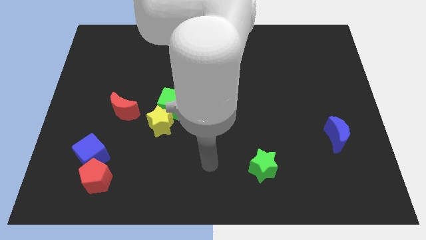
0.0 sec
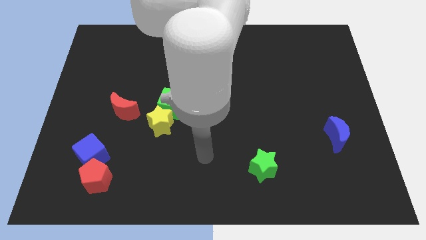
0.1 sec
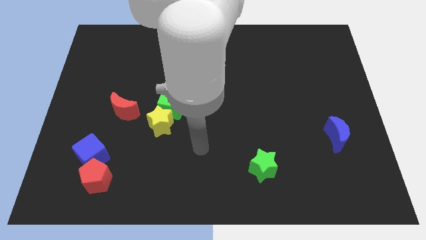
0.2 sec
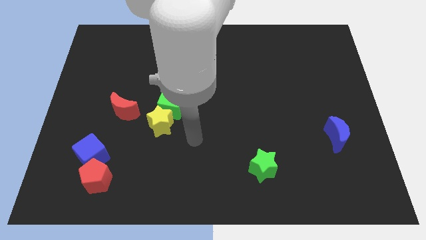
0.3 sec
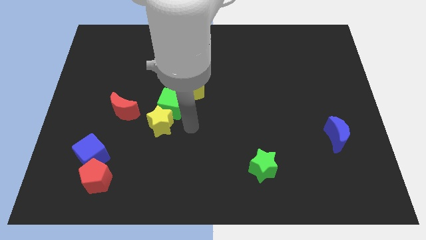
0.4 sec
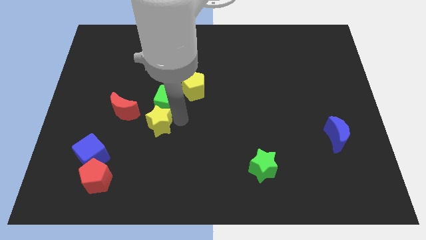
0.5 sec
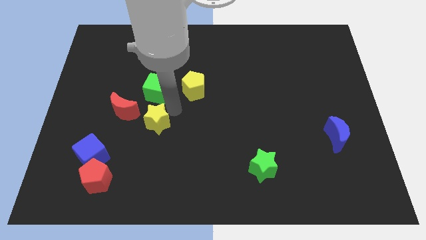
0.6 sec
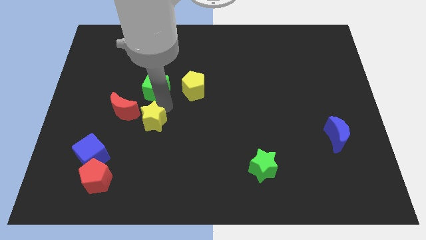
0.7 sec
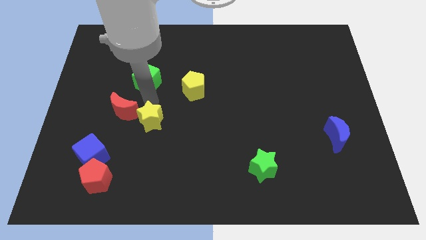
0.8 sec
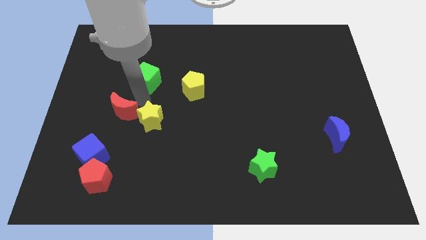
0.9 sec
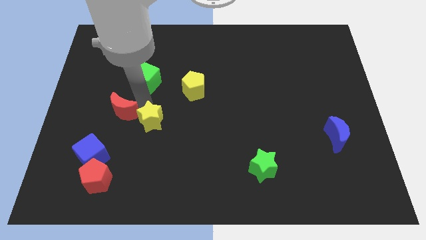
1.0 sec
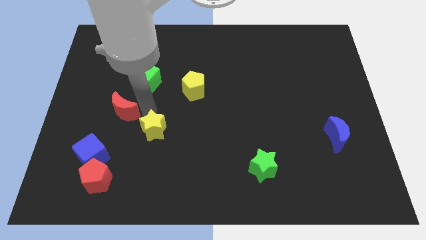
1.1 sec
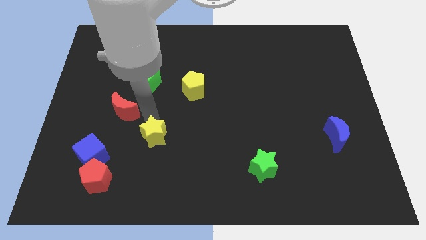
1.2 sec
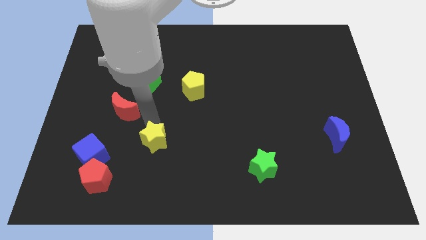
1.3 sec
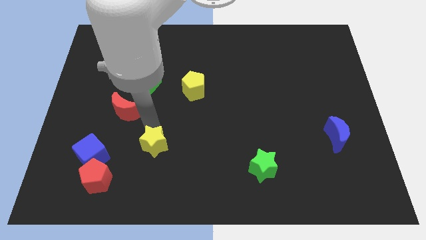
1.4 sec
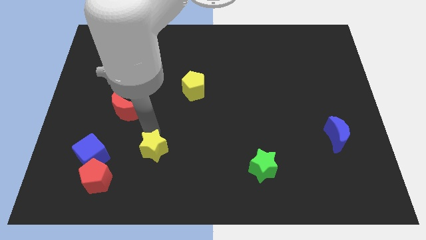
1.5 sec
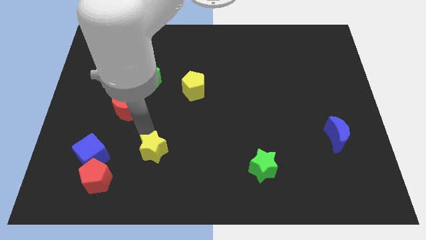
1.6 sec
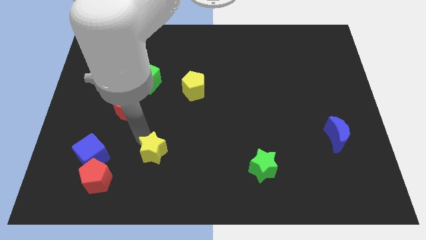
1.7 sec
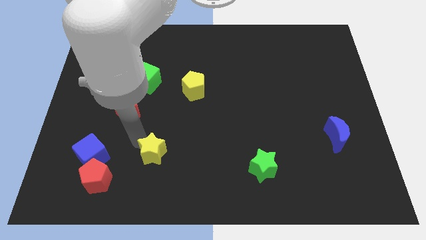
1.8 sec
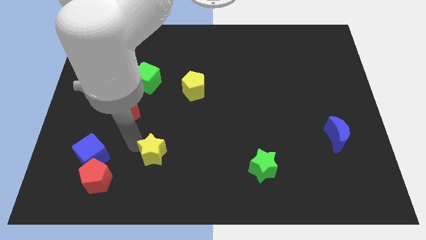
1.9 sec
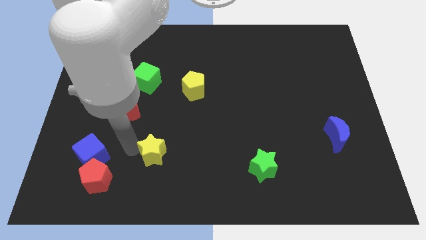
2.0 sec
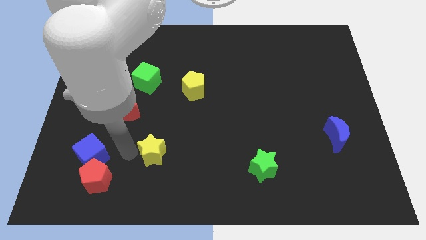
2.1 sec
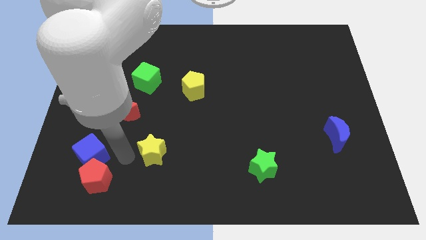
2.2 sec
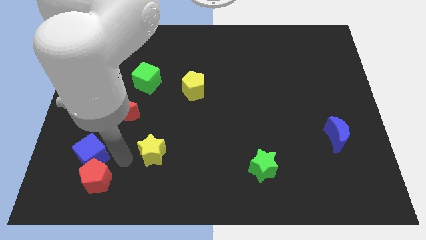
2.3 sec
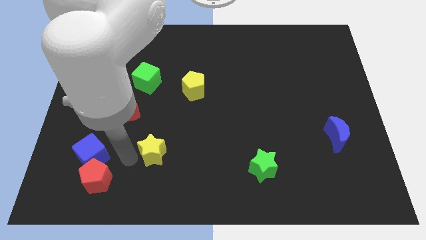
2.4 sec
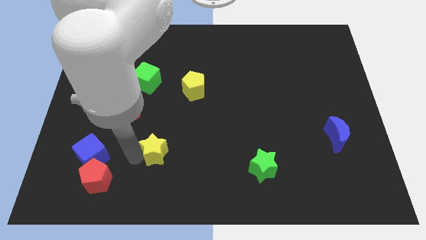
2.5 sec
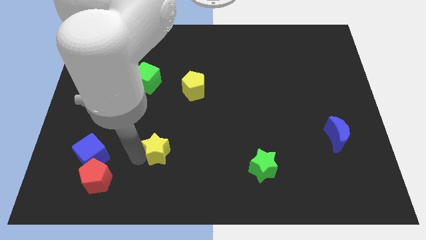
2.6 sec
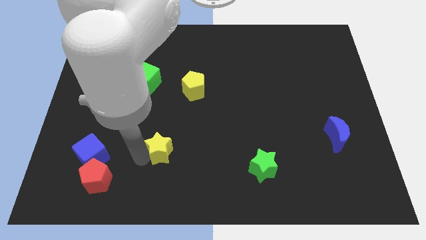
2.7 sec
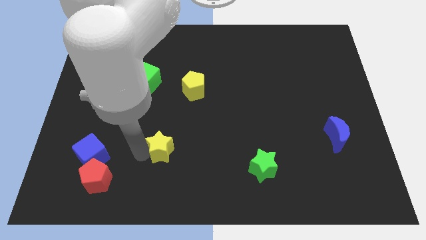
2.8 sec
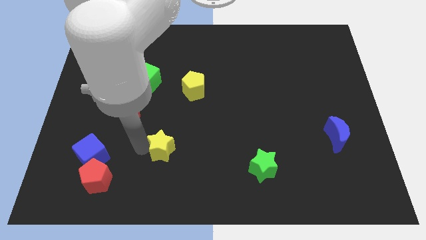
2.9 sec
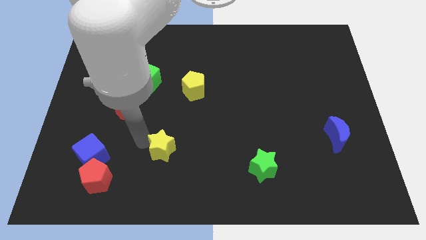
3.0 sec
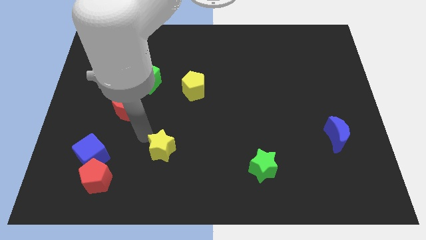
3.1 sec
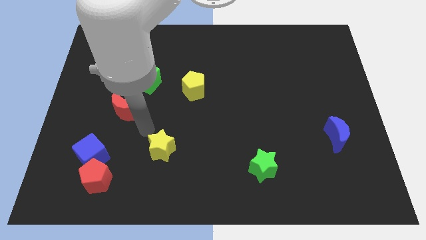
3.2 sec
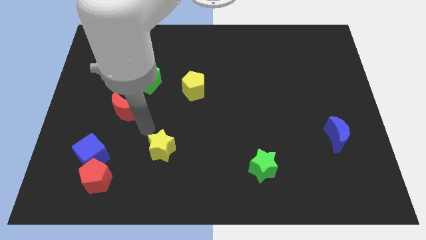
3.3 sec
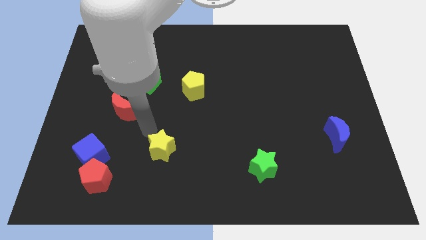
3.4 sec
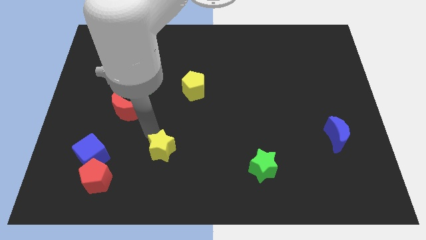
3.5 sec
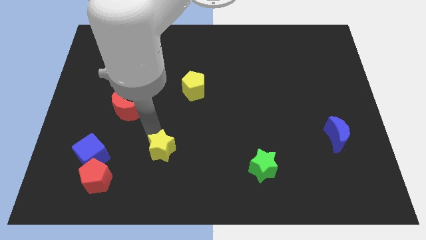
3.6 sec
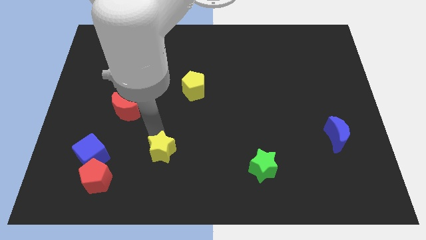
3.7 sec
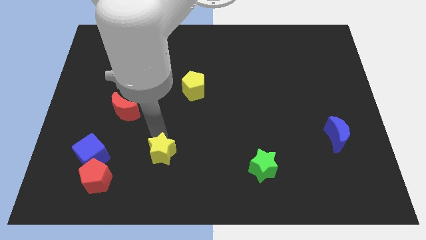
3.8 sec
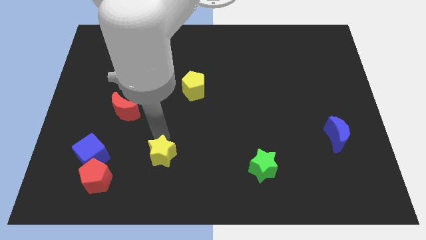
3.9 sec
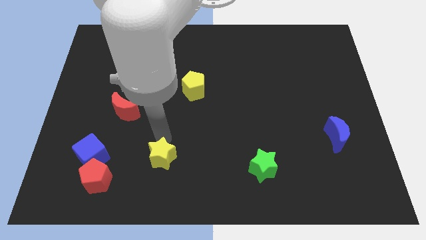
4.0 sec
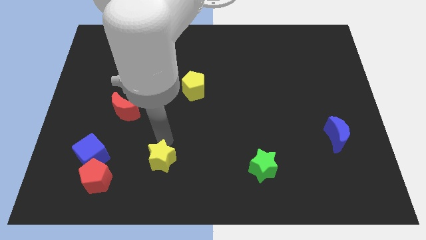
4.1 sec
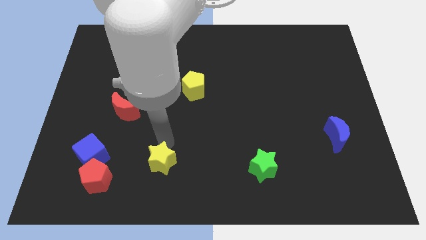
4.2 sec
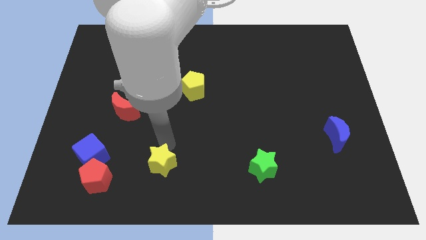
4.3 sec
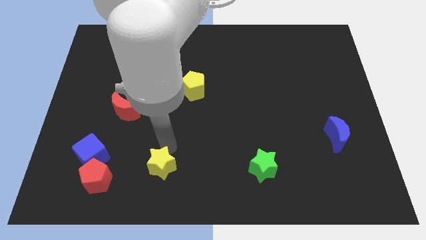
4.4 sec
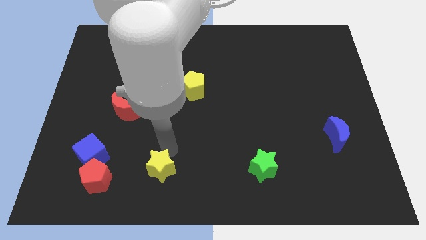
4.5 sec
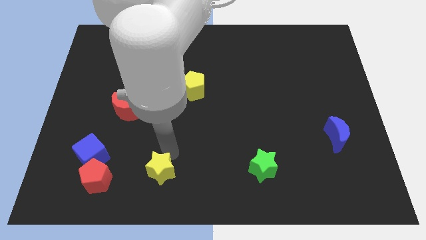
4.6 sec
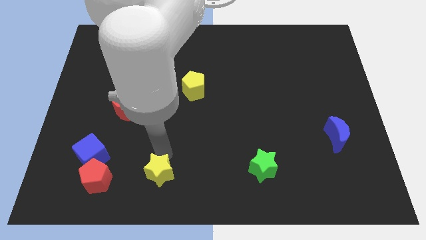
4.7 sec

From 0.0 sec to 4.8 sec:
slide the yellow star to the bottom side

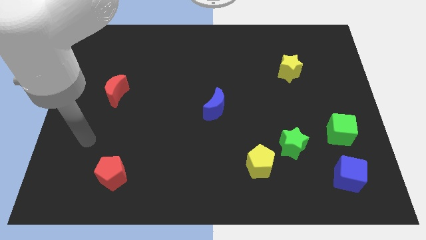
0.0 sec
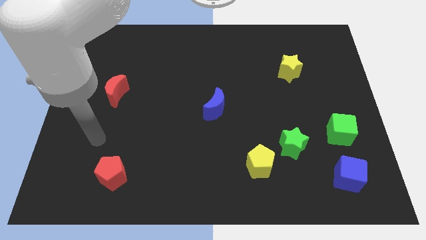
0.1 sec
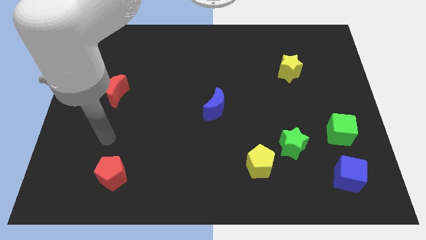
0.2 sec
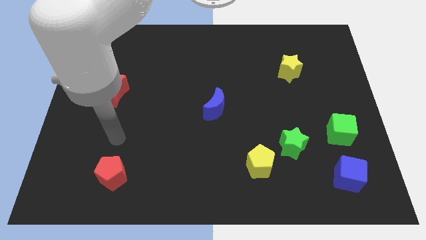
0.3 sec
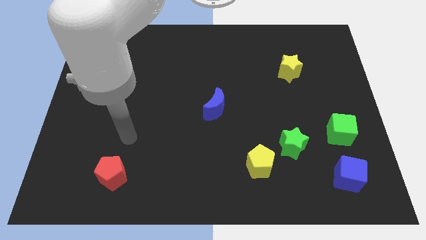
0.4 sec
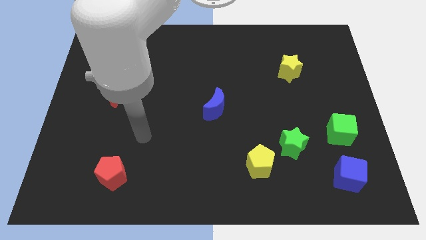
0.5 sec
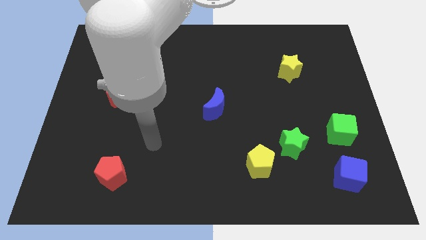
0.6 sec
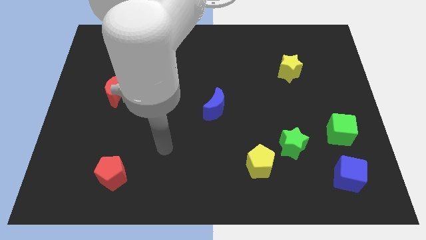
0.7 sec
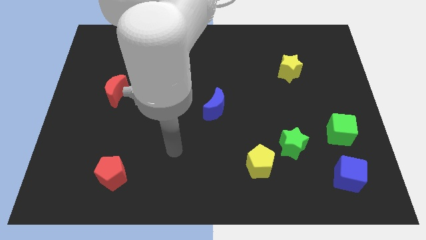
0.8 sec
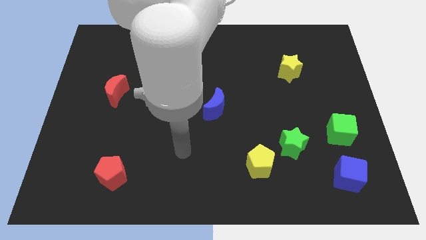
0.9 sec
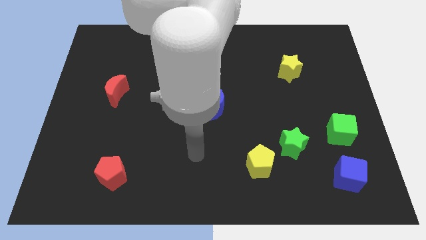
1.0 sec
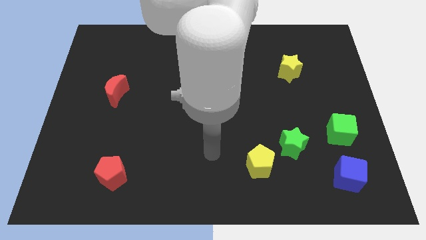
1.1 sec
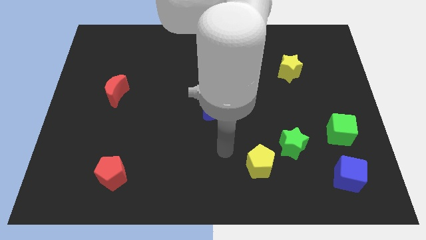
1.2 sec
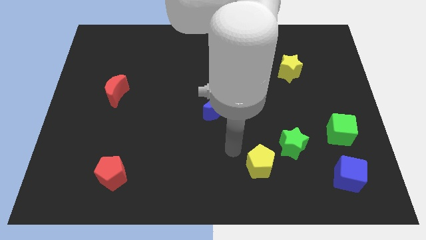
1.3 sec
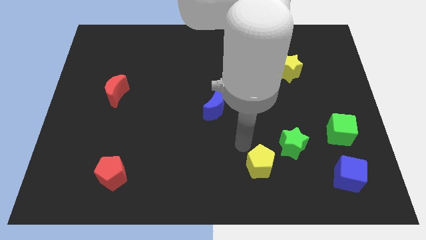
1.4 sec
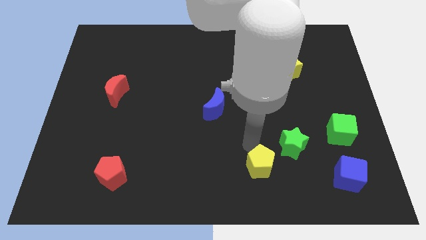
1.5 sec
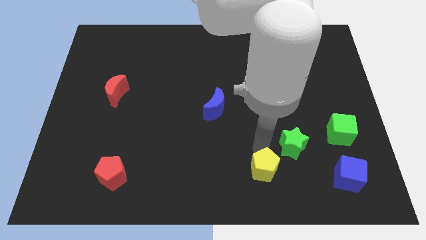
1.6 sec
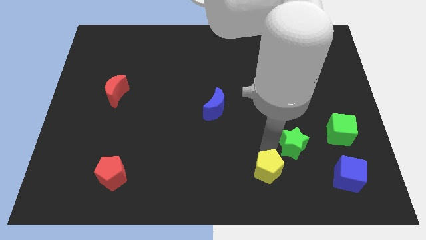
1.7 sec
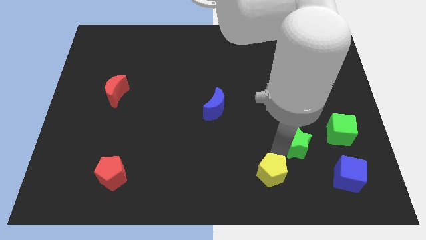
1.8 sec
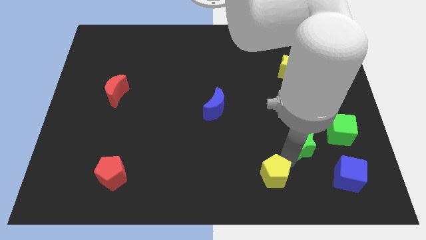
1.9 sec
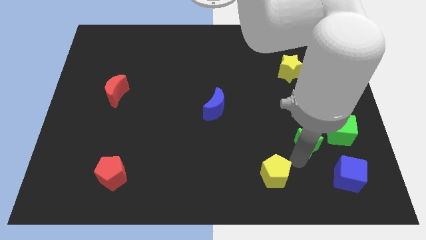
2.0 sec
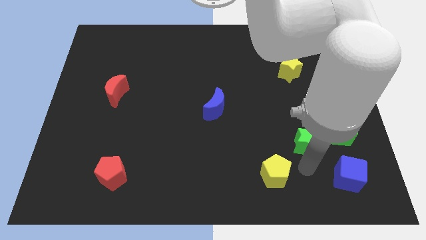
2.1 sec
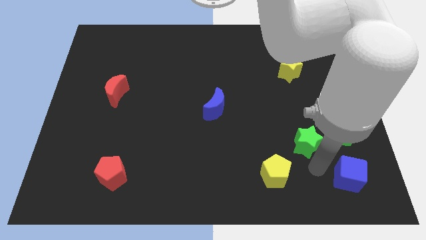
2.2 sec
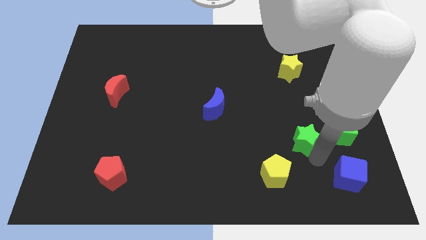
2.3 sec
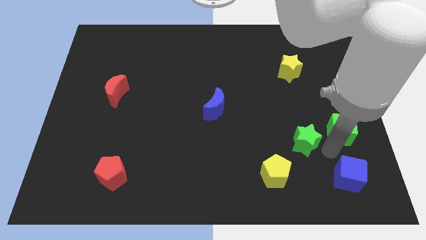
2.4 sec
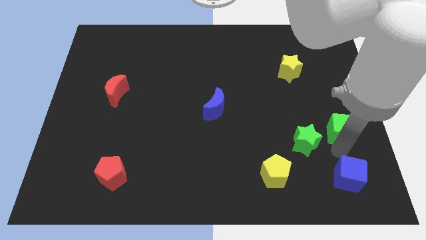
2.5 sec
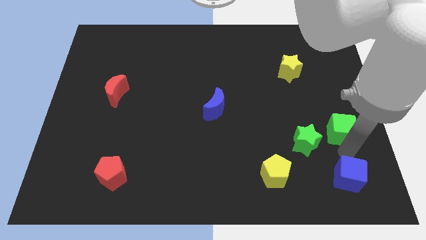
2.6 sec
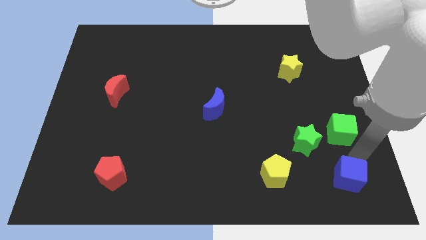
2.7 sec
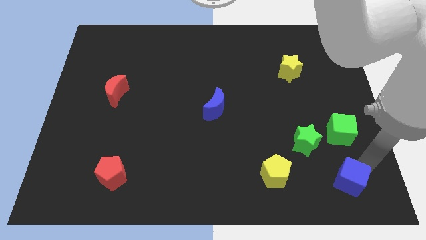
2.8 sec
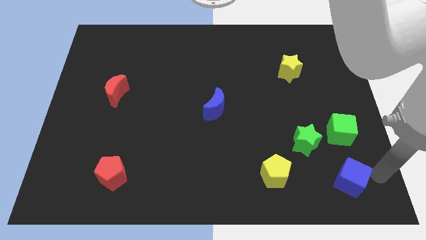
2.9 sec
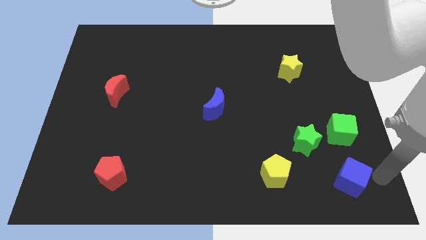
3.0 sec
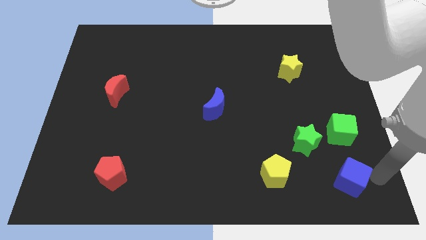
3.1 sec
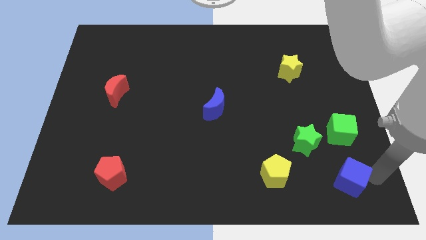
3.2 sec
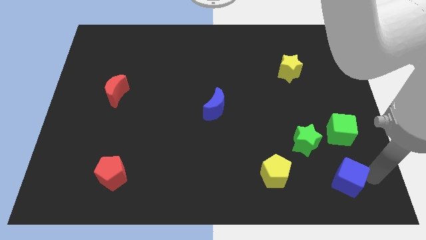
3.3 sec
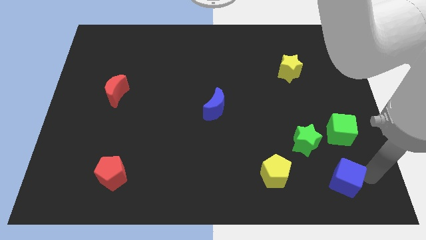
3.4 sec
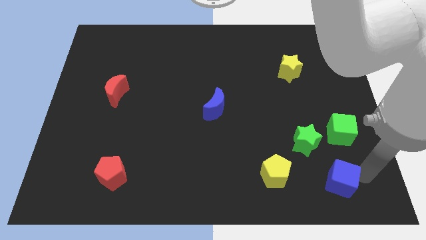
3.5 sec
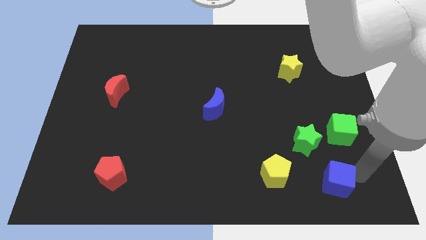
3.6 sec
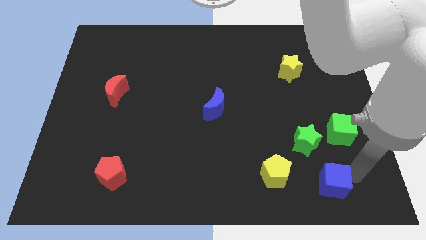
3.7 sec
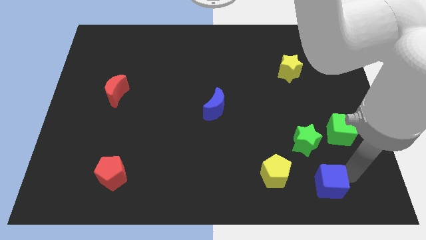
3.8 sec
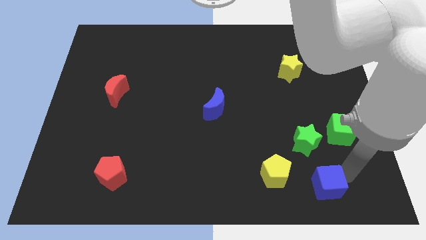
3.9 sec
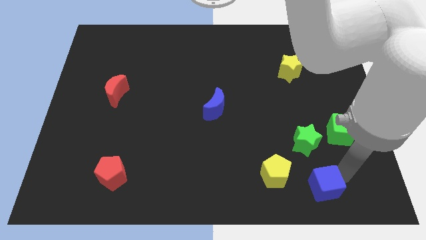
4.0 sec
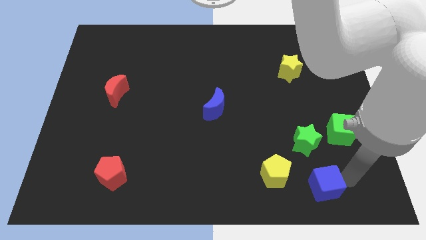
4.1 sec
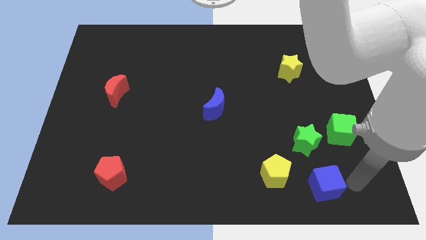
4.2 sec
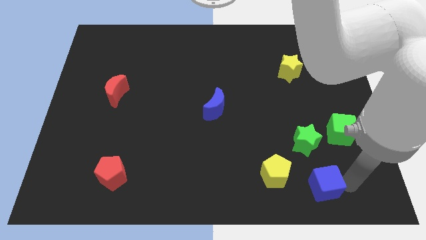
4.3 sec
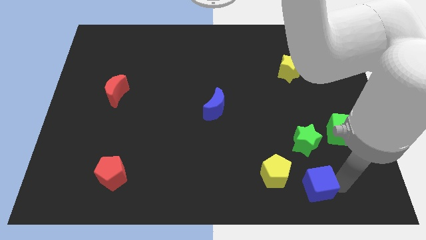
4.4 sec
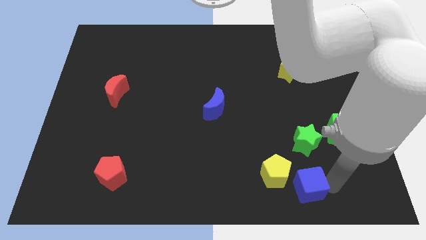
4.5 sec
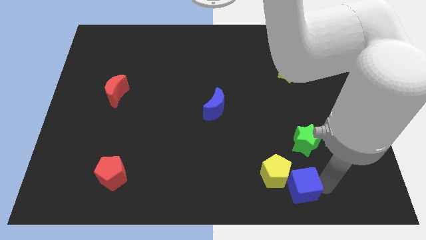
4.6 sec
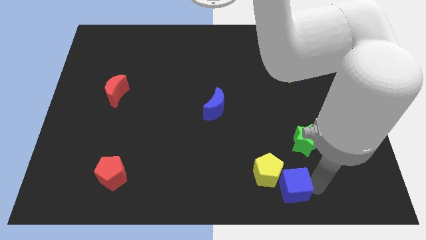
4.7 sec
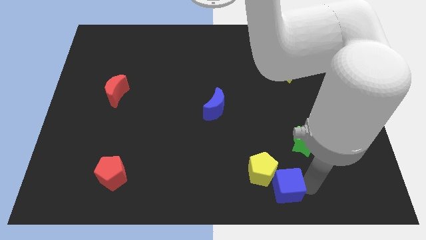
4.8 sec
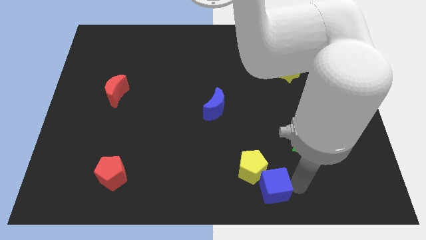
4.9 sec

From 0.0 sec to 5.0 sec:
move the blue cube to the bottom
